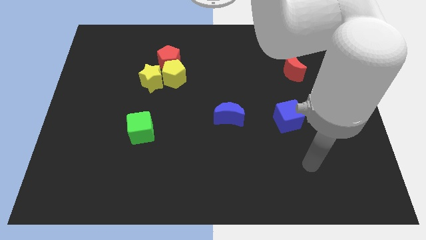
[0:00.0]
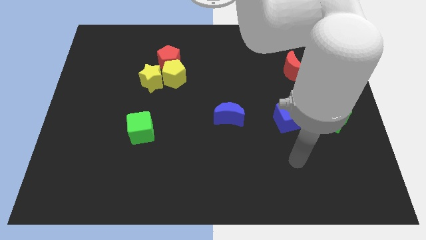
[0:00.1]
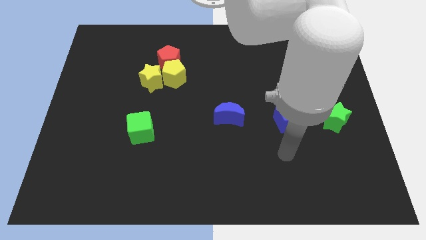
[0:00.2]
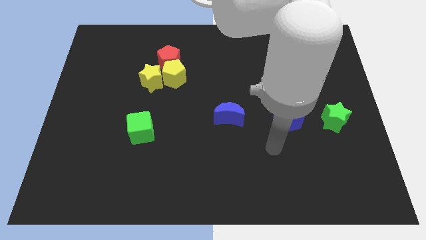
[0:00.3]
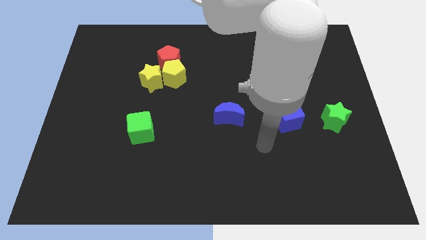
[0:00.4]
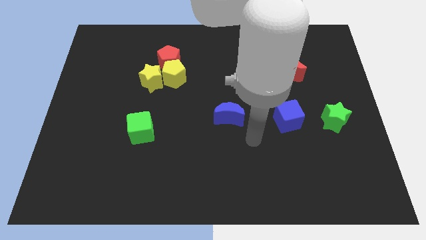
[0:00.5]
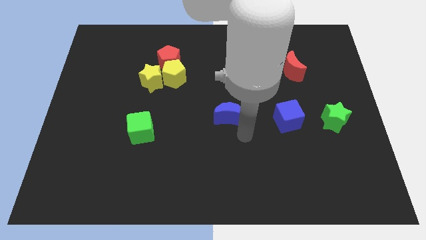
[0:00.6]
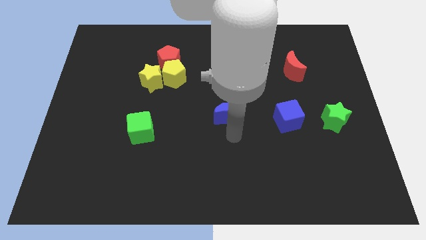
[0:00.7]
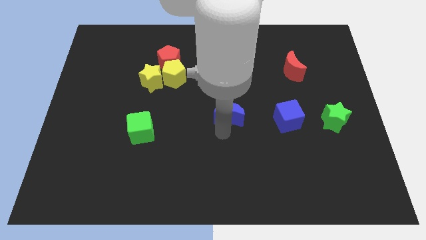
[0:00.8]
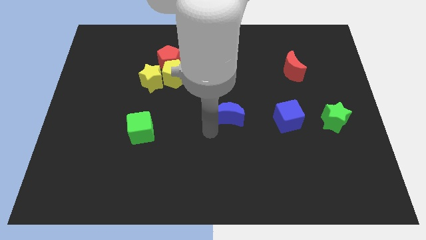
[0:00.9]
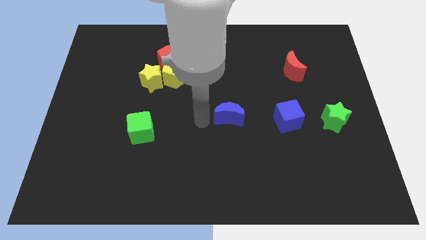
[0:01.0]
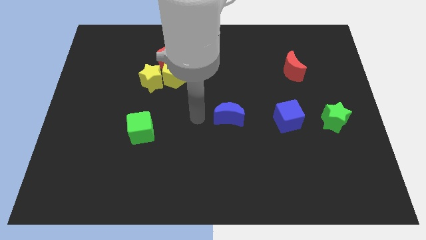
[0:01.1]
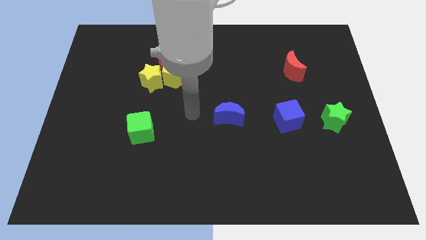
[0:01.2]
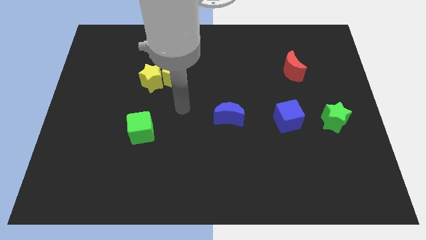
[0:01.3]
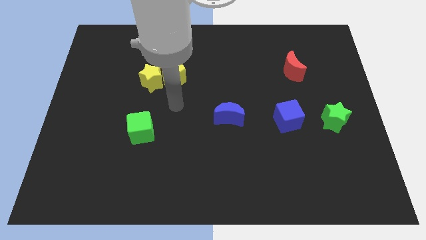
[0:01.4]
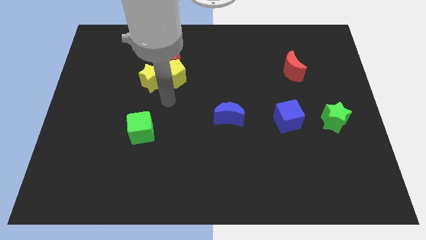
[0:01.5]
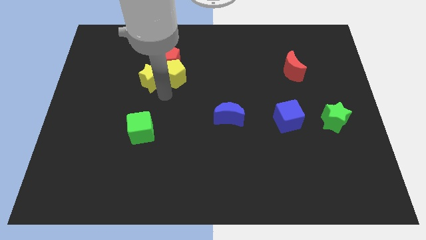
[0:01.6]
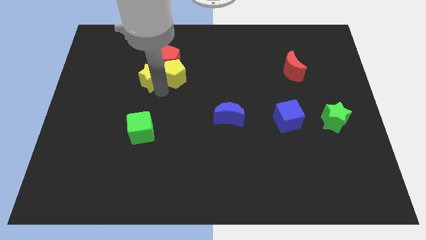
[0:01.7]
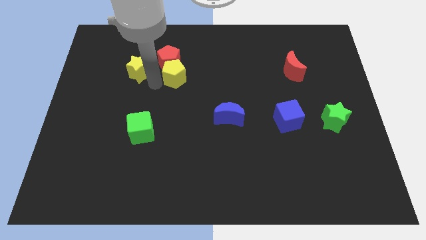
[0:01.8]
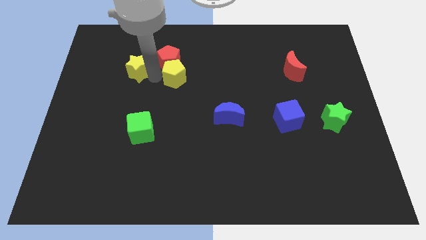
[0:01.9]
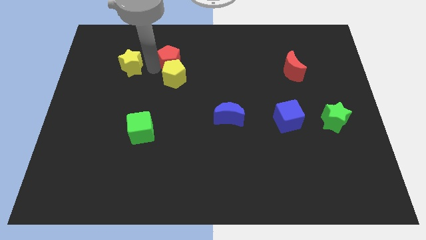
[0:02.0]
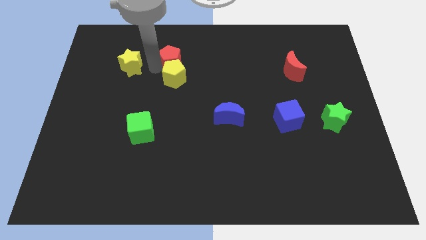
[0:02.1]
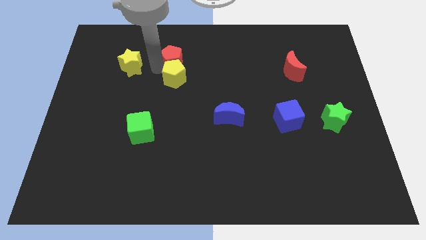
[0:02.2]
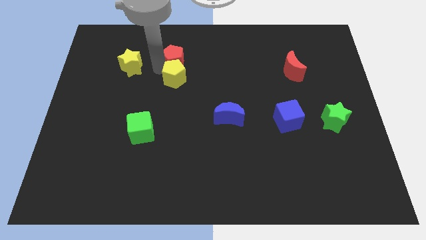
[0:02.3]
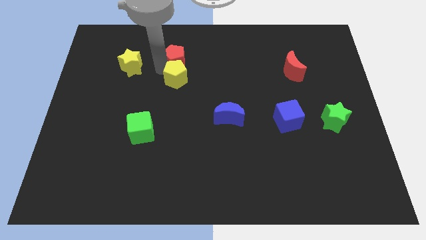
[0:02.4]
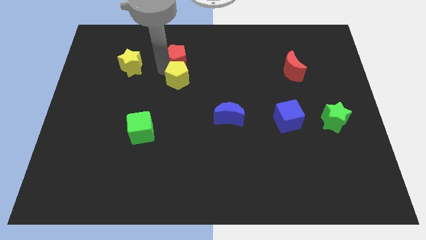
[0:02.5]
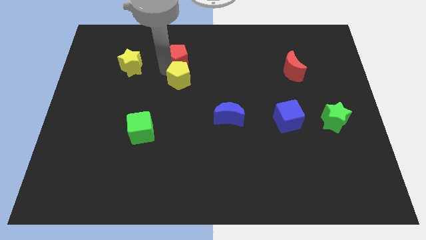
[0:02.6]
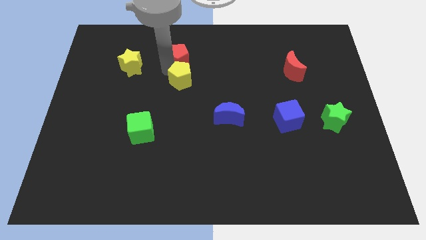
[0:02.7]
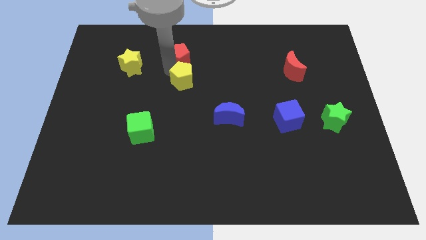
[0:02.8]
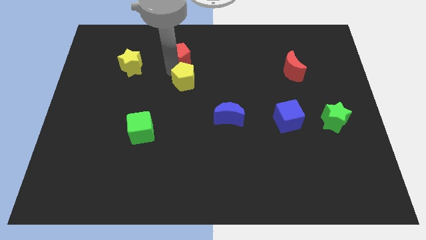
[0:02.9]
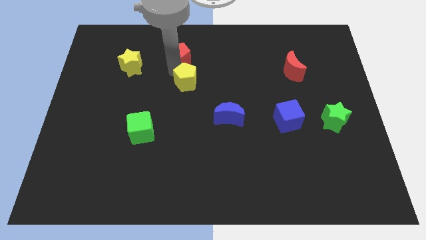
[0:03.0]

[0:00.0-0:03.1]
separate the yellow pentagon from the red pentagon and yellow star

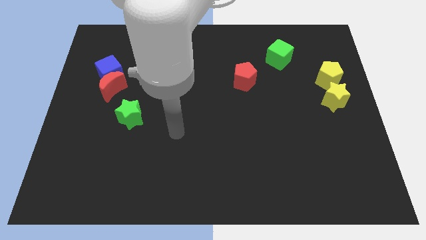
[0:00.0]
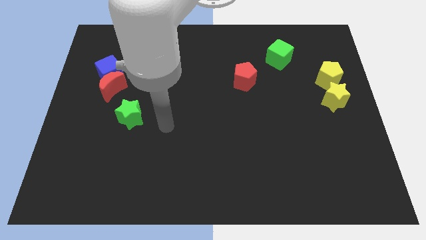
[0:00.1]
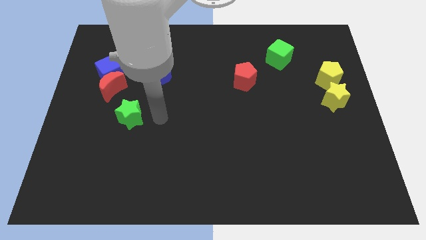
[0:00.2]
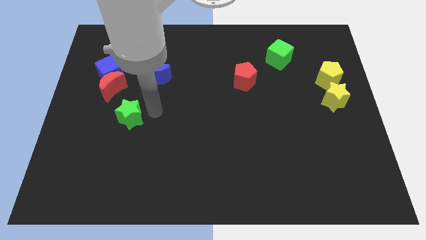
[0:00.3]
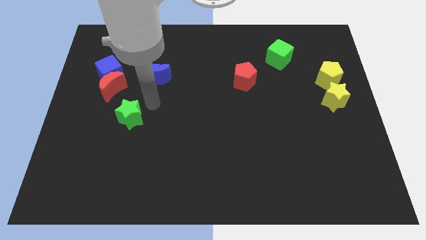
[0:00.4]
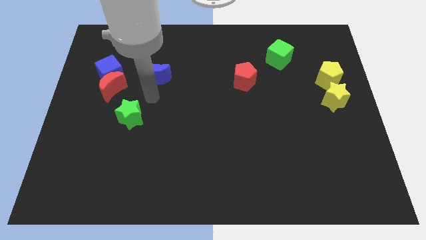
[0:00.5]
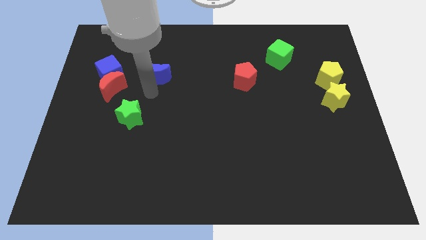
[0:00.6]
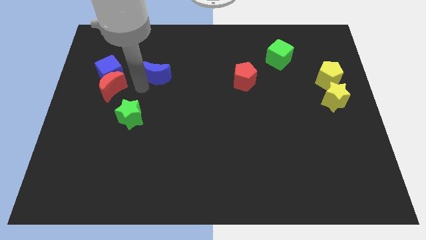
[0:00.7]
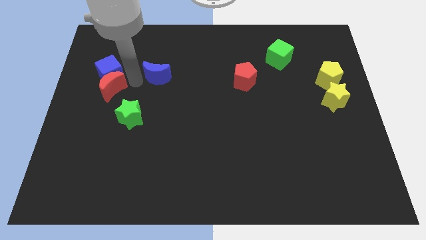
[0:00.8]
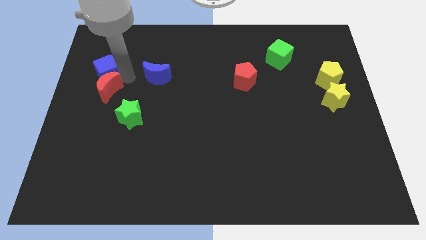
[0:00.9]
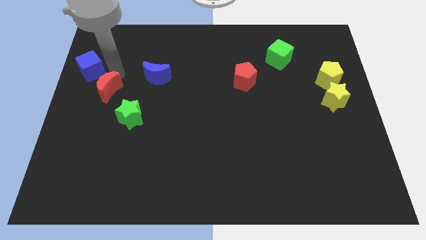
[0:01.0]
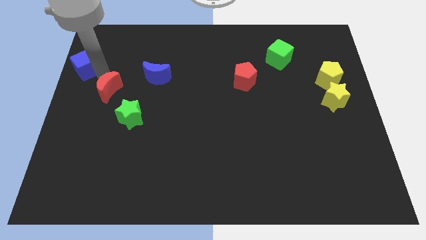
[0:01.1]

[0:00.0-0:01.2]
move the red moon away from the blue cube

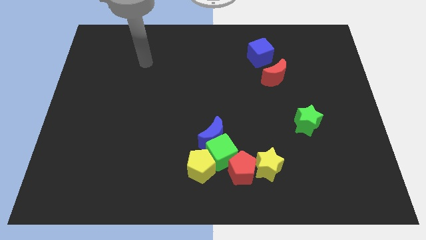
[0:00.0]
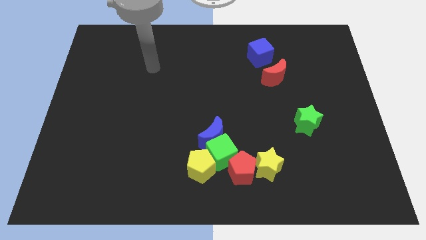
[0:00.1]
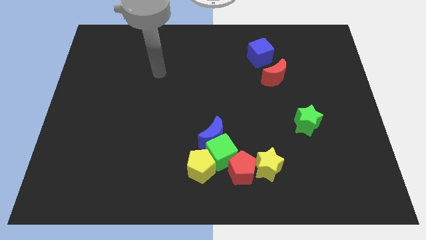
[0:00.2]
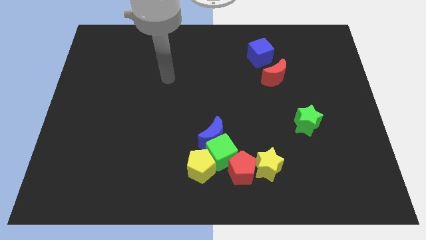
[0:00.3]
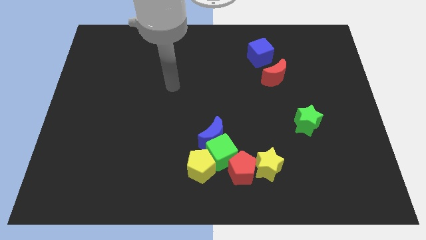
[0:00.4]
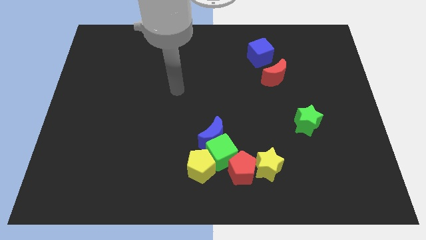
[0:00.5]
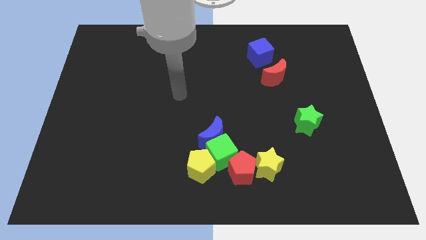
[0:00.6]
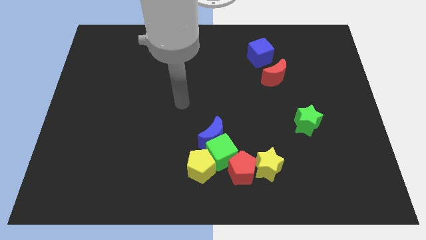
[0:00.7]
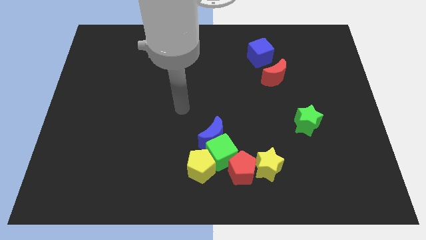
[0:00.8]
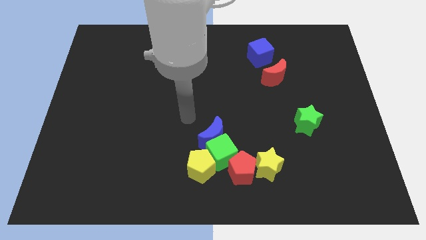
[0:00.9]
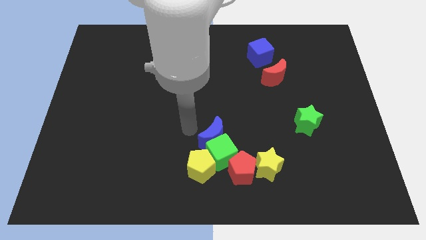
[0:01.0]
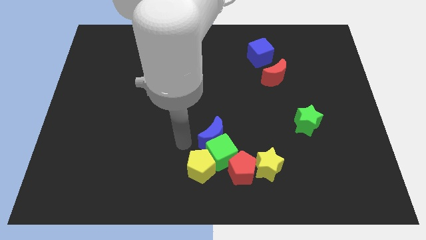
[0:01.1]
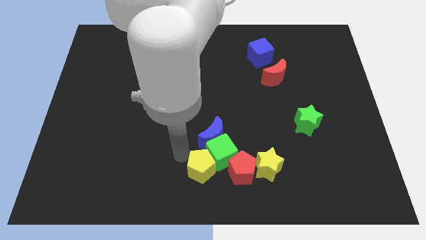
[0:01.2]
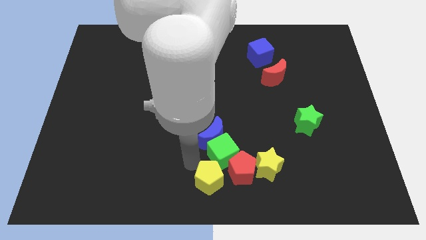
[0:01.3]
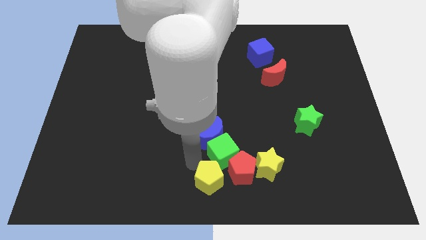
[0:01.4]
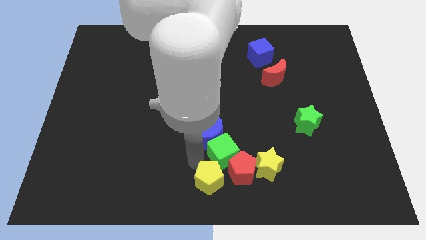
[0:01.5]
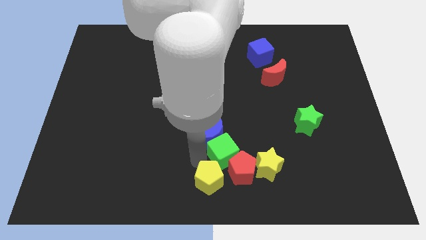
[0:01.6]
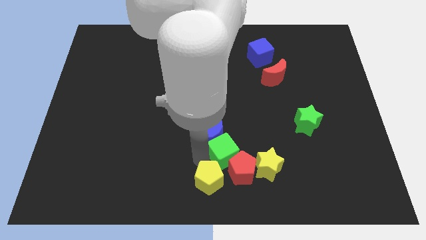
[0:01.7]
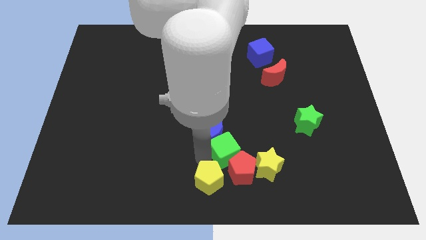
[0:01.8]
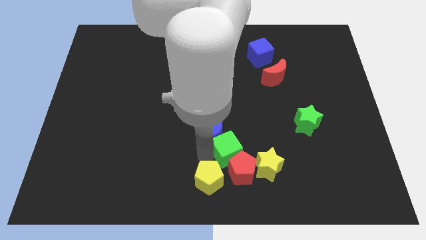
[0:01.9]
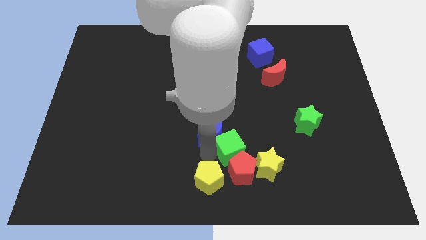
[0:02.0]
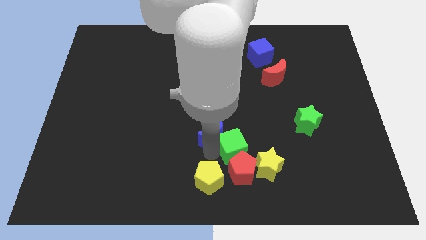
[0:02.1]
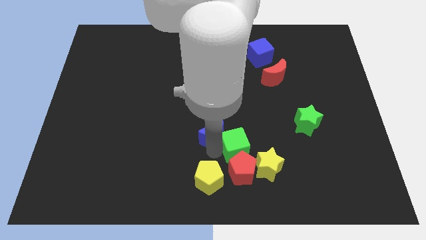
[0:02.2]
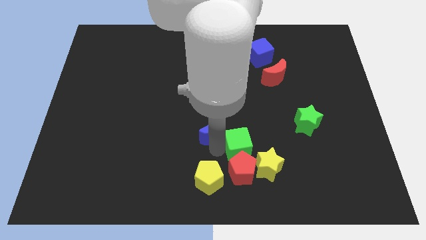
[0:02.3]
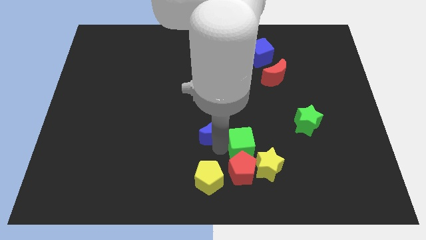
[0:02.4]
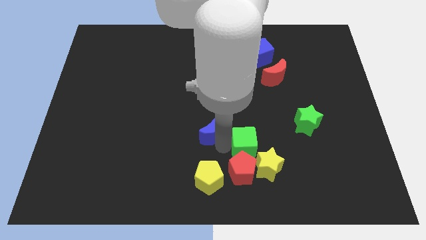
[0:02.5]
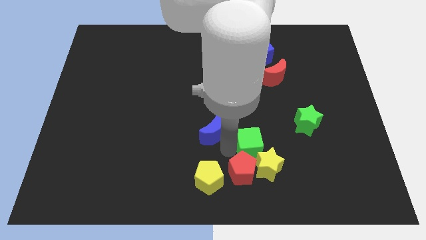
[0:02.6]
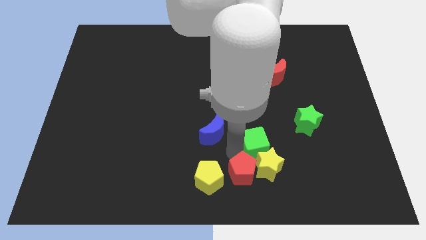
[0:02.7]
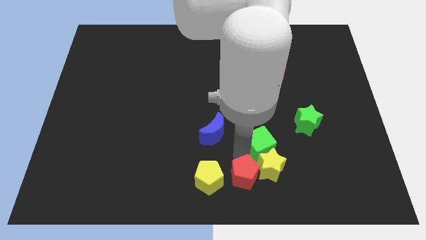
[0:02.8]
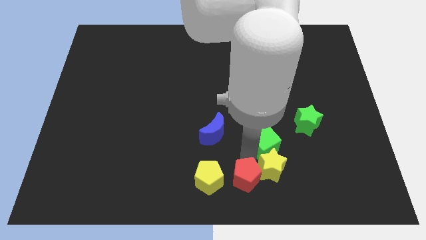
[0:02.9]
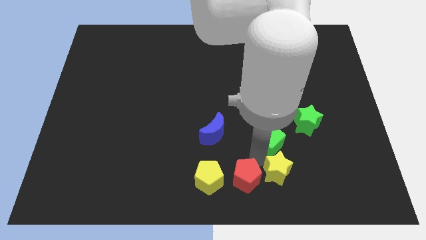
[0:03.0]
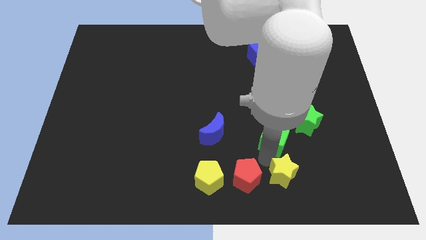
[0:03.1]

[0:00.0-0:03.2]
move the green cube away from the group

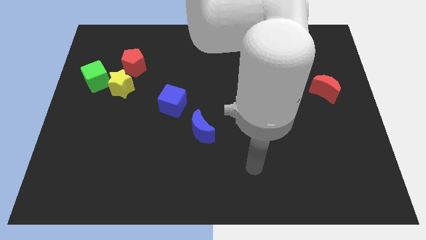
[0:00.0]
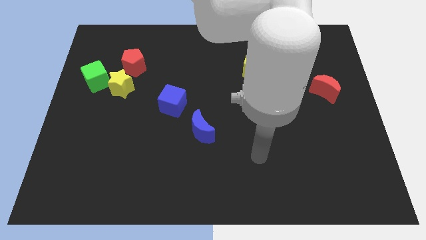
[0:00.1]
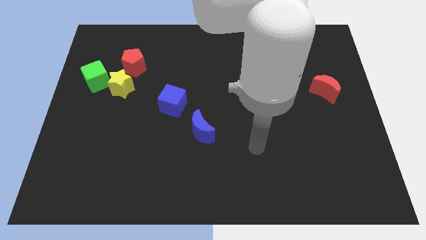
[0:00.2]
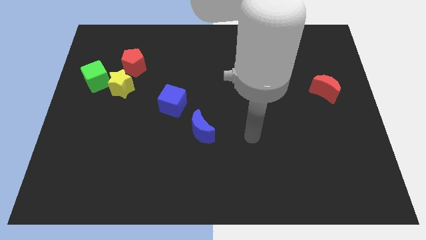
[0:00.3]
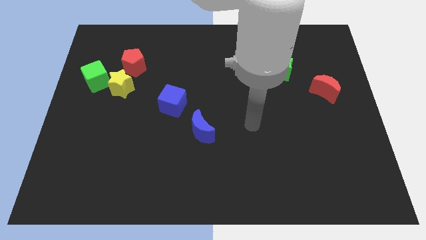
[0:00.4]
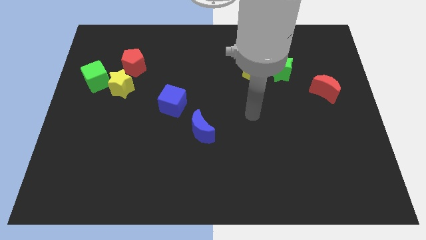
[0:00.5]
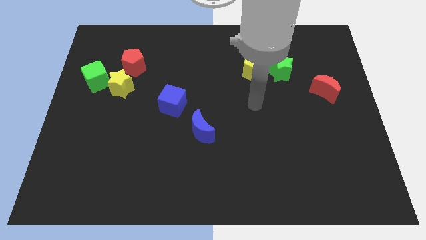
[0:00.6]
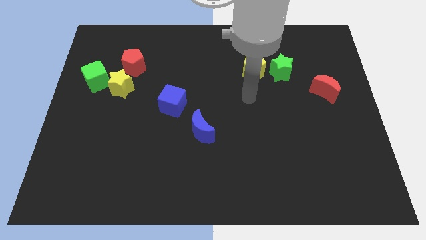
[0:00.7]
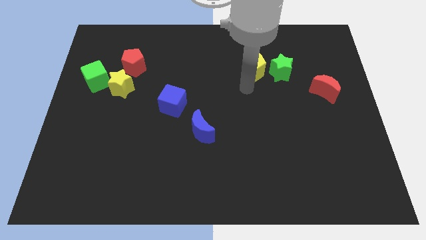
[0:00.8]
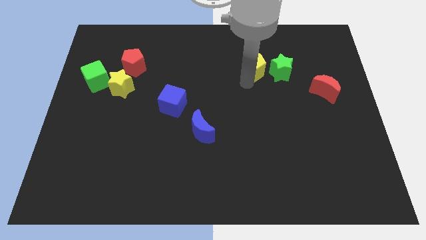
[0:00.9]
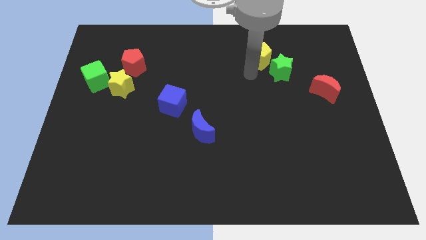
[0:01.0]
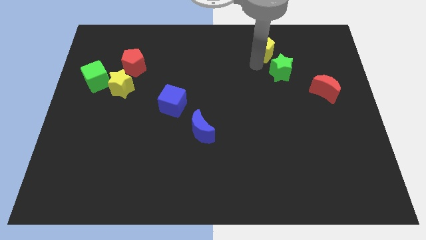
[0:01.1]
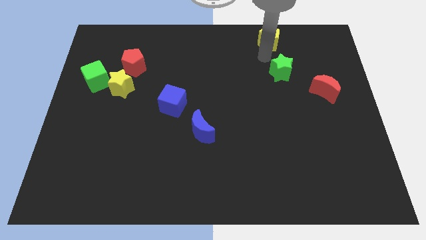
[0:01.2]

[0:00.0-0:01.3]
separate the green star from the yellow pentagon

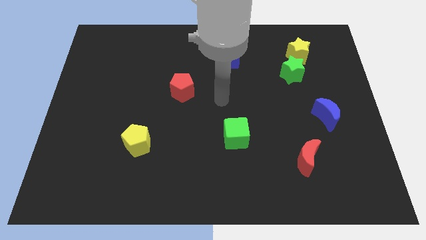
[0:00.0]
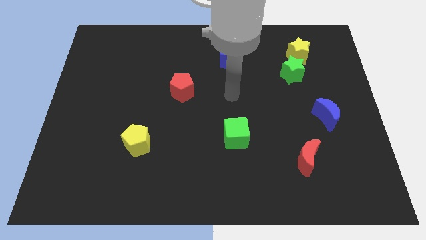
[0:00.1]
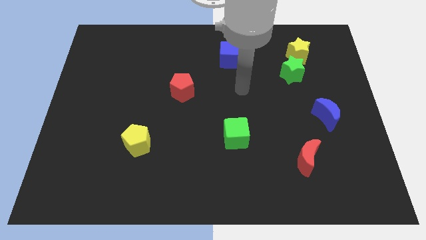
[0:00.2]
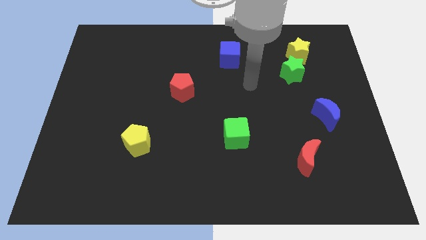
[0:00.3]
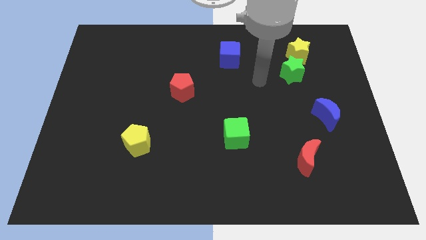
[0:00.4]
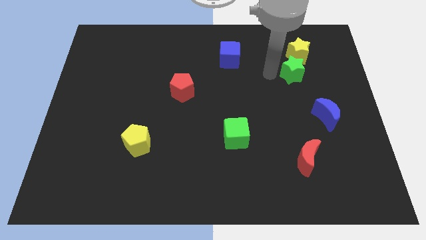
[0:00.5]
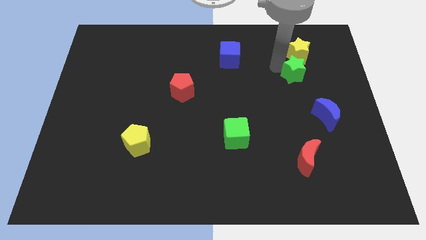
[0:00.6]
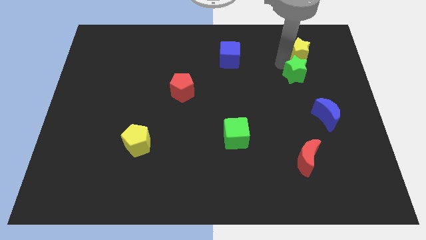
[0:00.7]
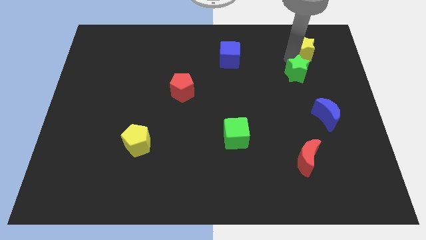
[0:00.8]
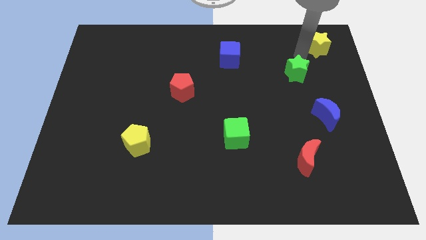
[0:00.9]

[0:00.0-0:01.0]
separate the green star from the yellow star
